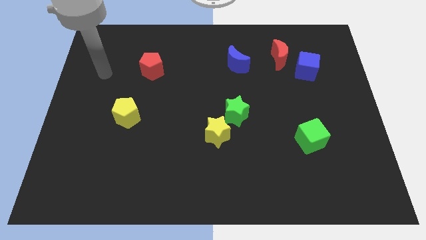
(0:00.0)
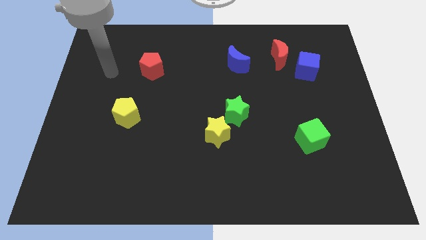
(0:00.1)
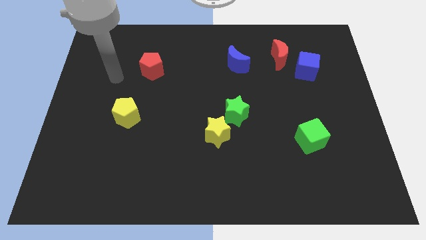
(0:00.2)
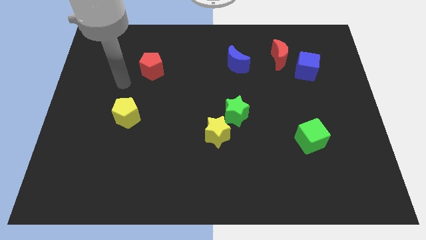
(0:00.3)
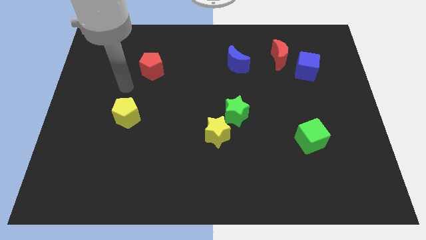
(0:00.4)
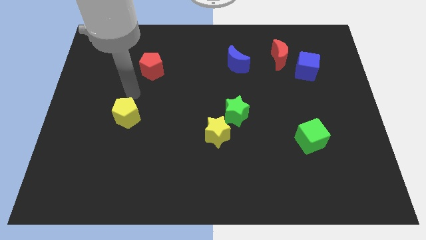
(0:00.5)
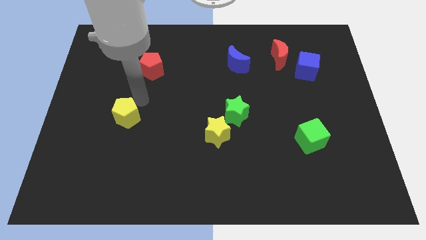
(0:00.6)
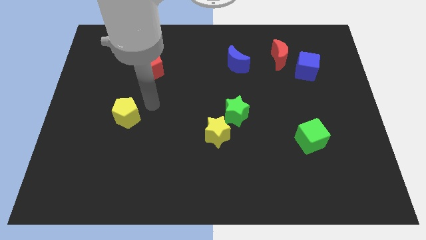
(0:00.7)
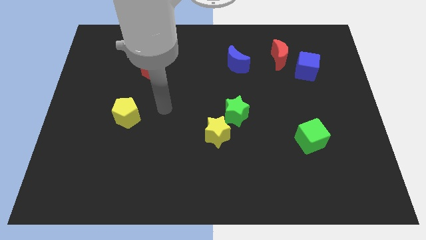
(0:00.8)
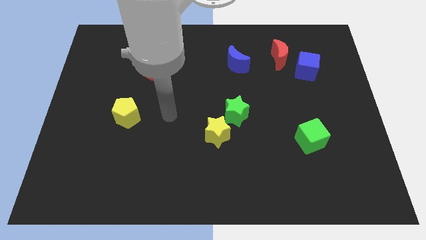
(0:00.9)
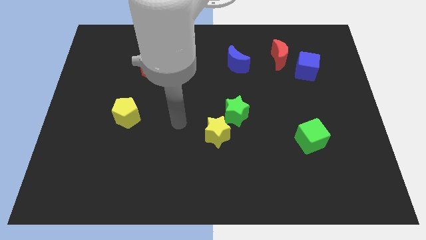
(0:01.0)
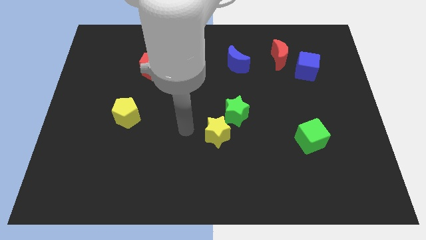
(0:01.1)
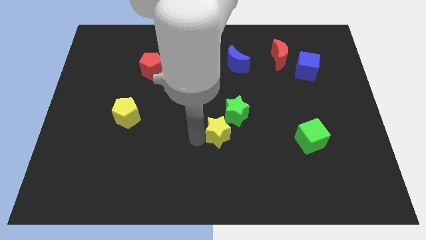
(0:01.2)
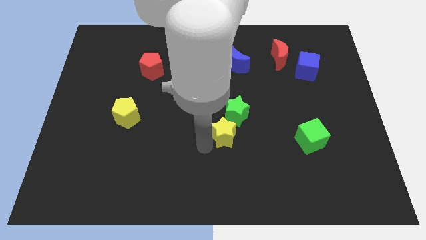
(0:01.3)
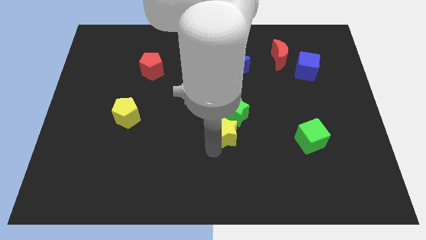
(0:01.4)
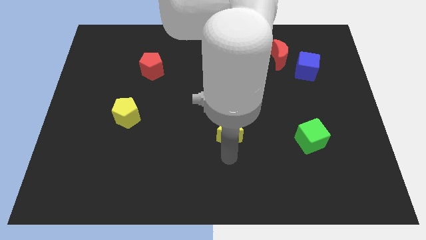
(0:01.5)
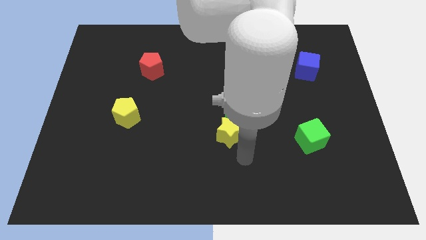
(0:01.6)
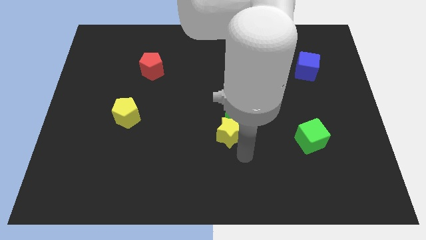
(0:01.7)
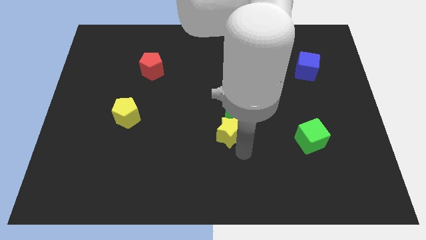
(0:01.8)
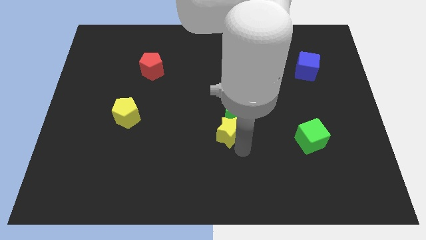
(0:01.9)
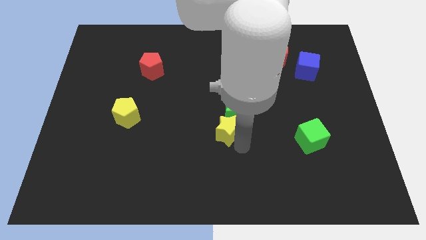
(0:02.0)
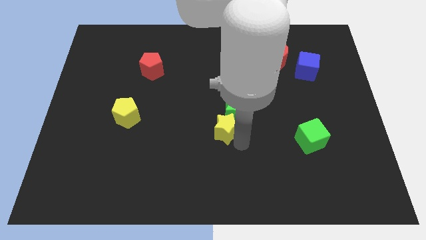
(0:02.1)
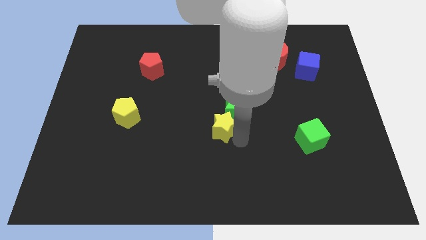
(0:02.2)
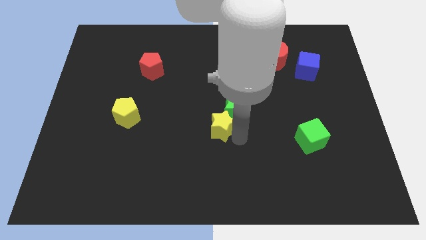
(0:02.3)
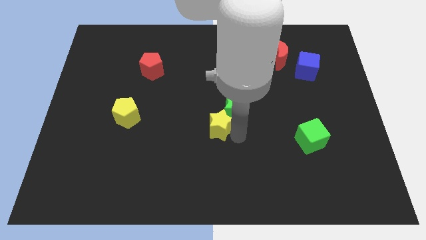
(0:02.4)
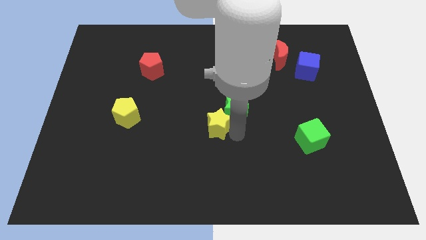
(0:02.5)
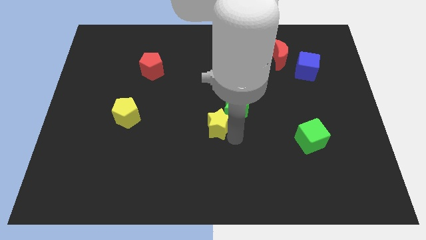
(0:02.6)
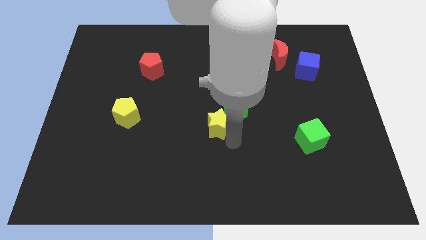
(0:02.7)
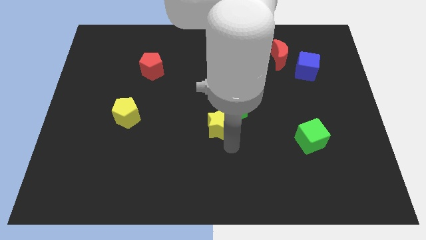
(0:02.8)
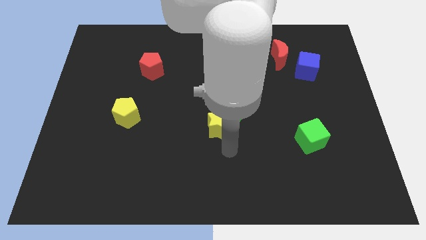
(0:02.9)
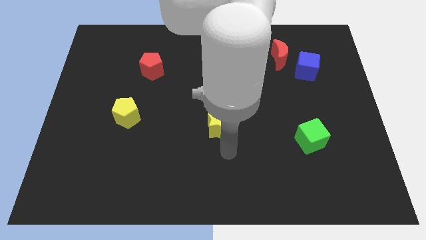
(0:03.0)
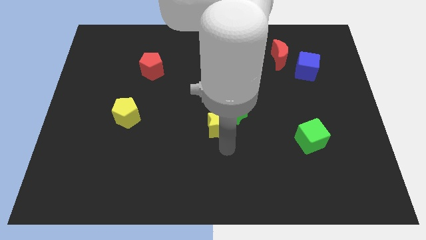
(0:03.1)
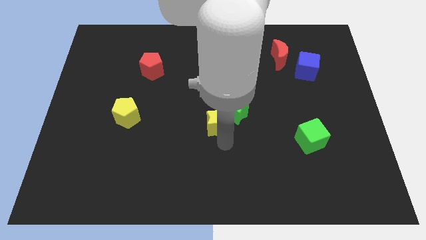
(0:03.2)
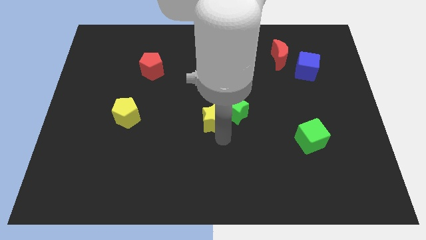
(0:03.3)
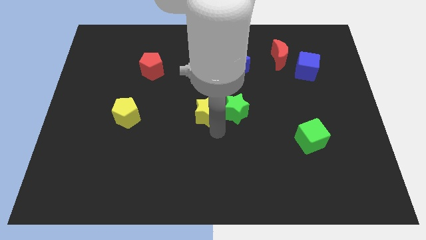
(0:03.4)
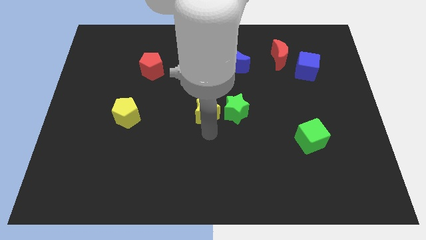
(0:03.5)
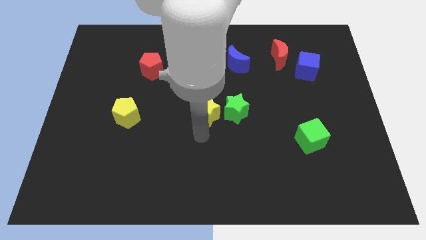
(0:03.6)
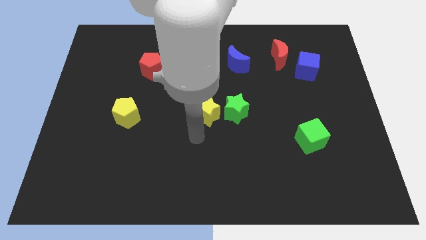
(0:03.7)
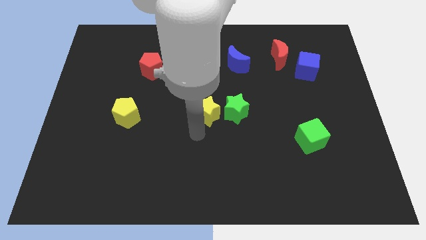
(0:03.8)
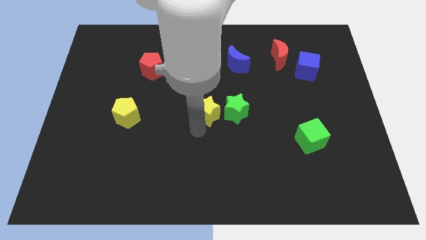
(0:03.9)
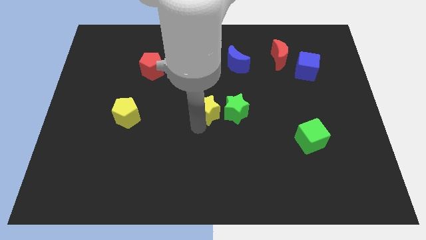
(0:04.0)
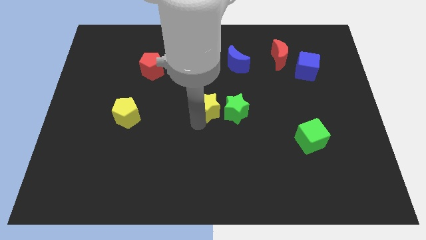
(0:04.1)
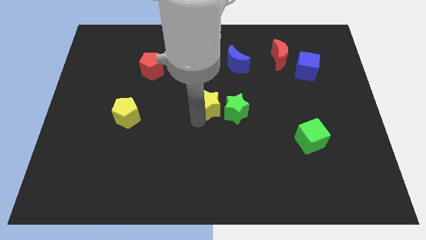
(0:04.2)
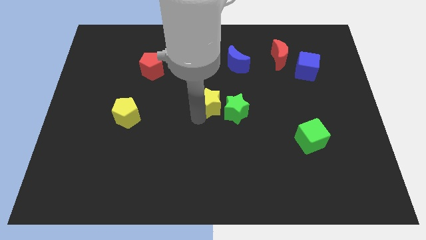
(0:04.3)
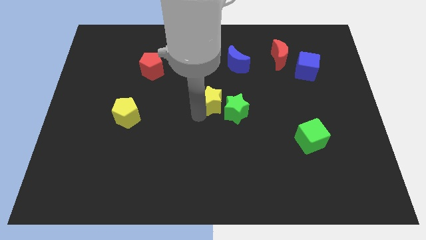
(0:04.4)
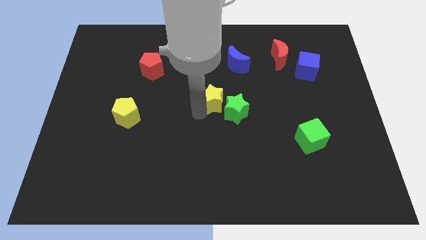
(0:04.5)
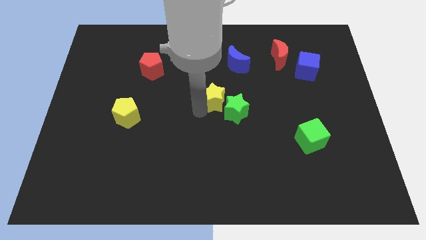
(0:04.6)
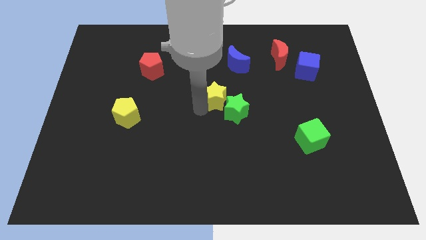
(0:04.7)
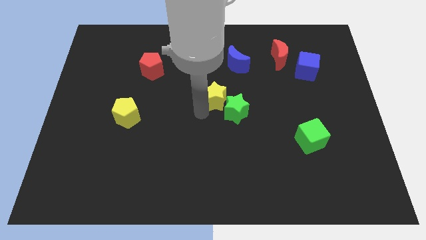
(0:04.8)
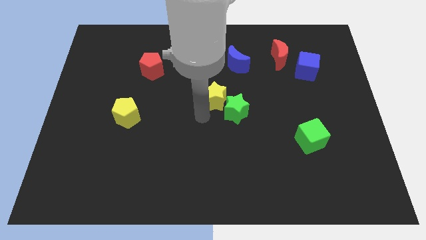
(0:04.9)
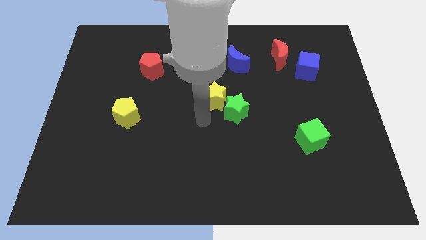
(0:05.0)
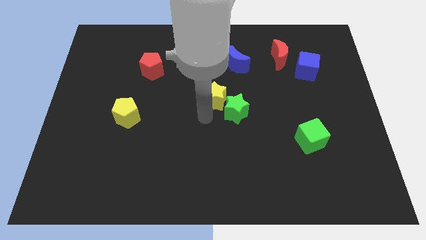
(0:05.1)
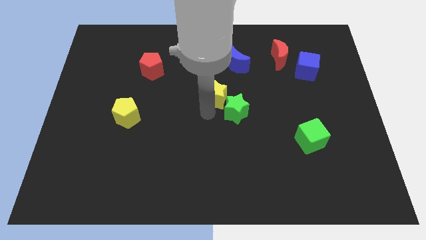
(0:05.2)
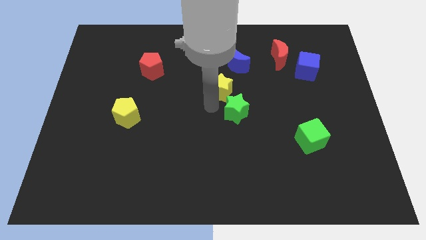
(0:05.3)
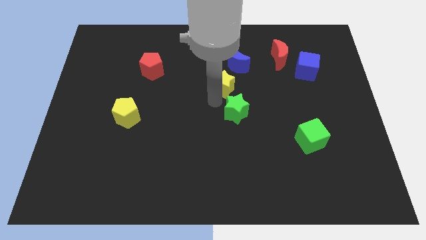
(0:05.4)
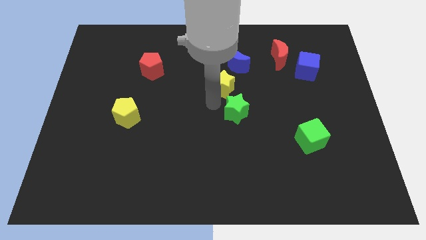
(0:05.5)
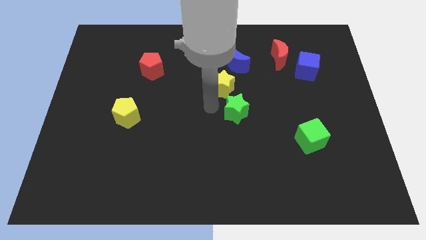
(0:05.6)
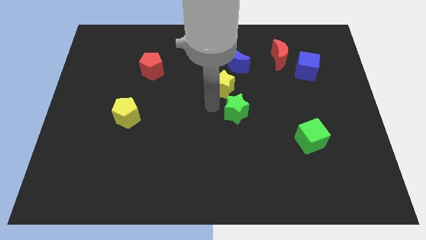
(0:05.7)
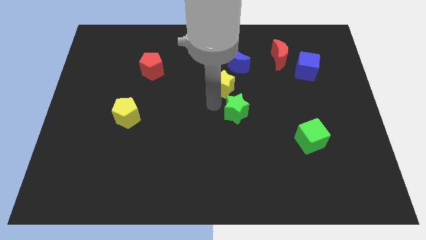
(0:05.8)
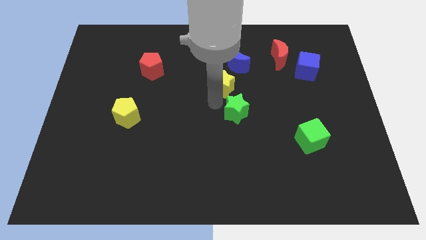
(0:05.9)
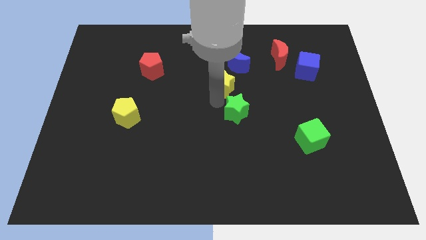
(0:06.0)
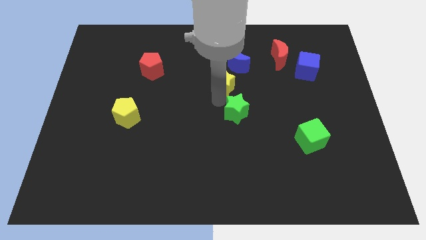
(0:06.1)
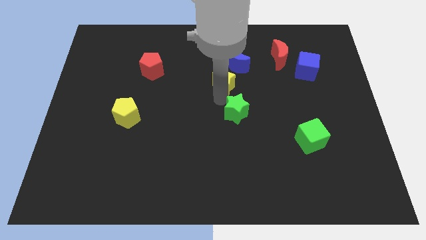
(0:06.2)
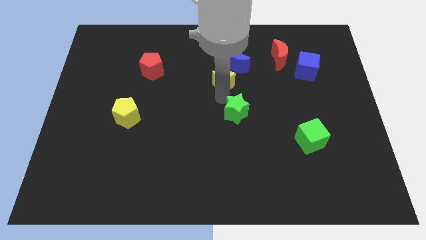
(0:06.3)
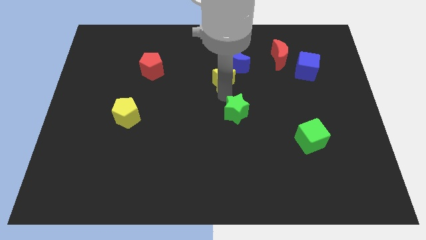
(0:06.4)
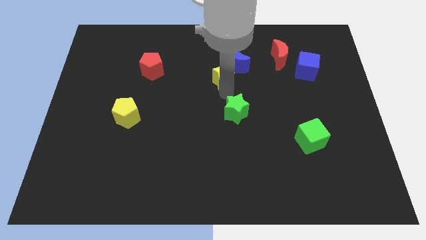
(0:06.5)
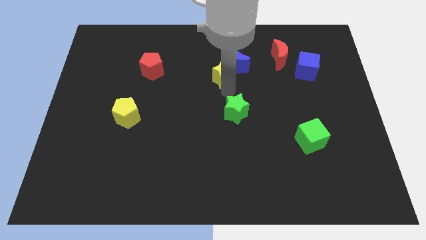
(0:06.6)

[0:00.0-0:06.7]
put the yellow star to the blue moon
